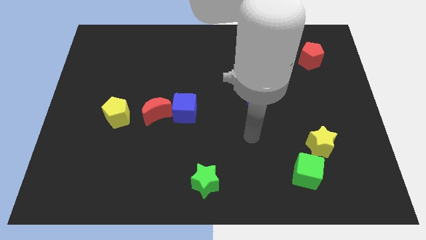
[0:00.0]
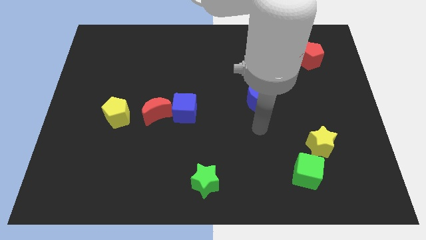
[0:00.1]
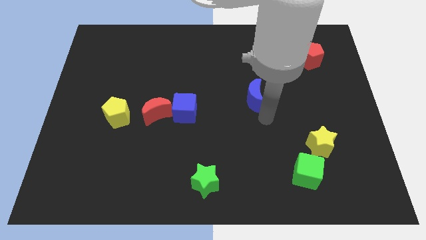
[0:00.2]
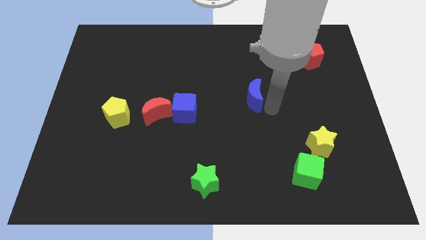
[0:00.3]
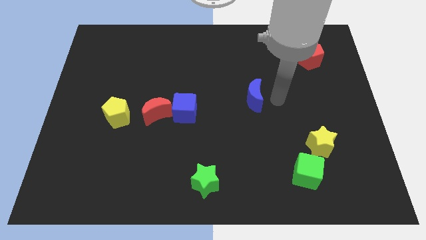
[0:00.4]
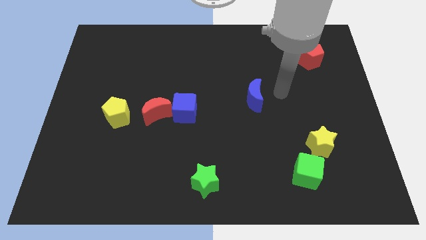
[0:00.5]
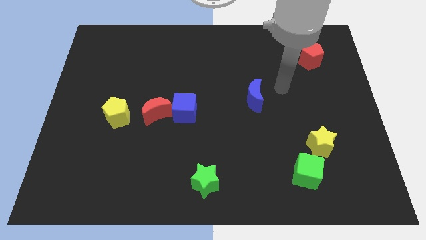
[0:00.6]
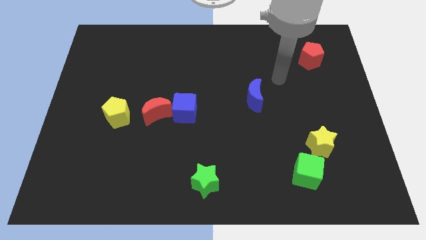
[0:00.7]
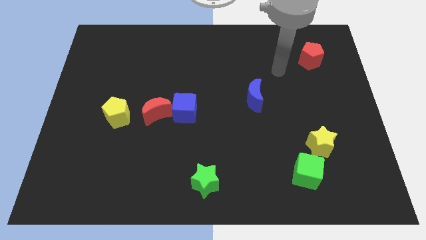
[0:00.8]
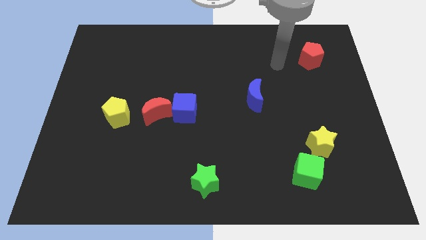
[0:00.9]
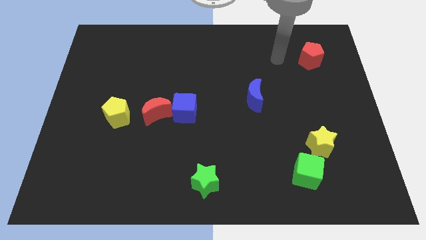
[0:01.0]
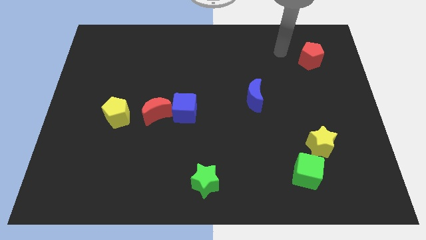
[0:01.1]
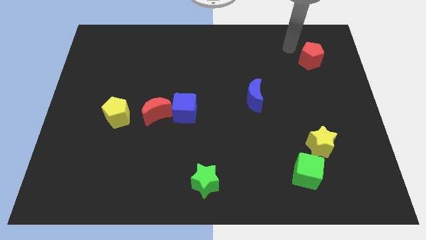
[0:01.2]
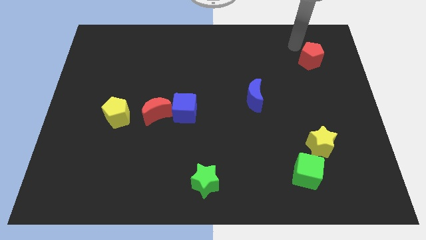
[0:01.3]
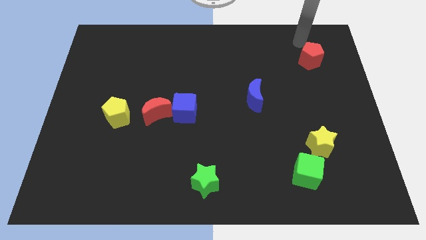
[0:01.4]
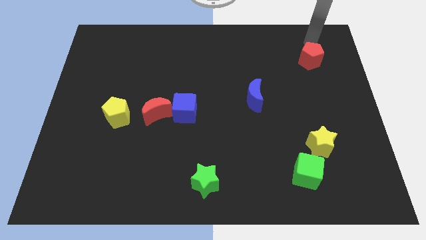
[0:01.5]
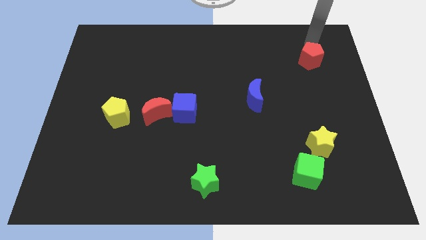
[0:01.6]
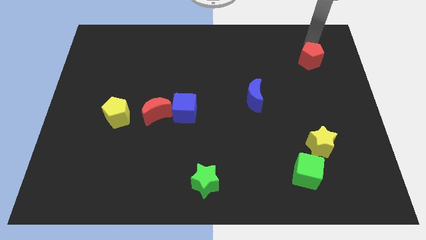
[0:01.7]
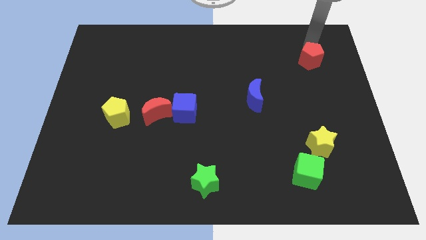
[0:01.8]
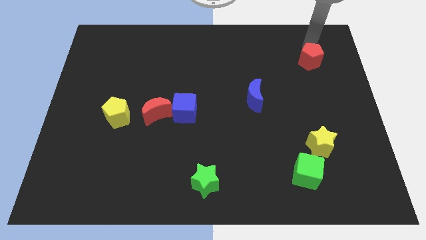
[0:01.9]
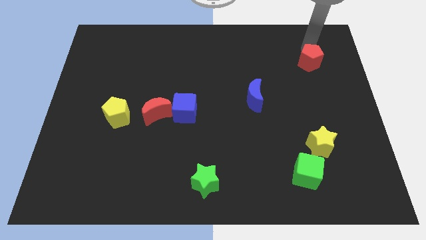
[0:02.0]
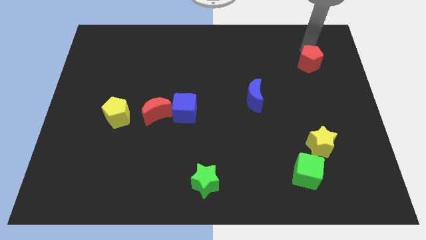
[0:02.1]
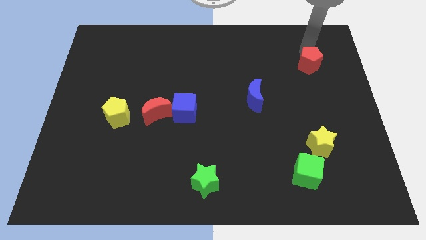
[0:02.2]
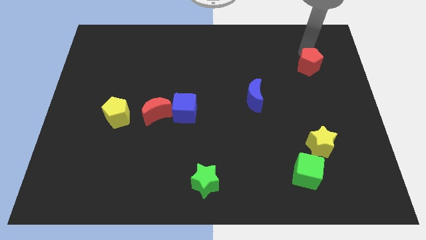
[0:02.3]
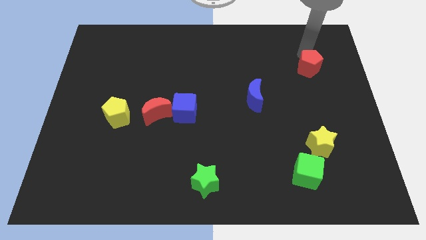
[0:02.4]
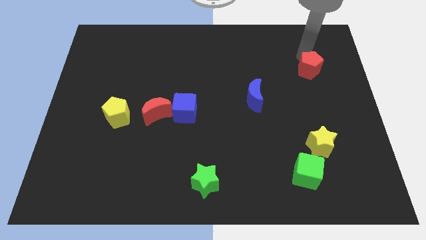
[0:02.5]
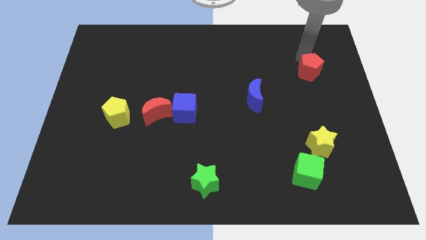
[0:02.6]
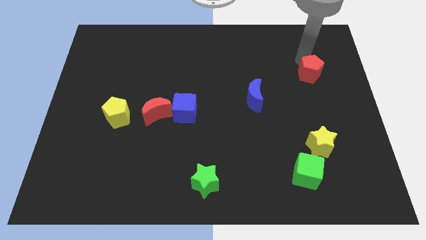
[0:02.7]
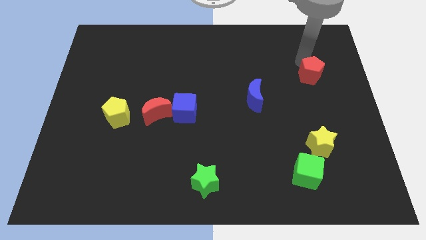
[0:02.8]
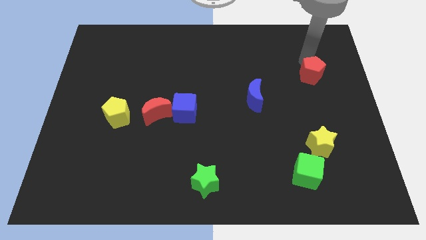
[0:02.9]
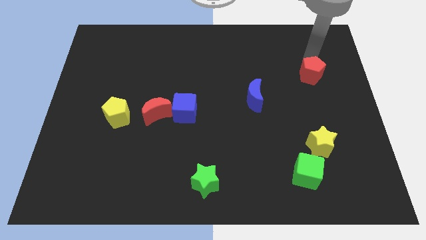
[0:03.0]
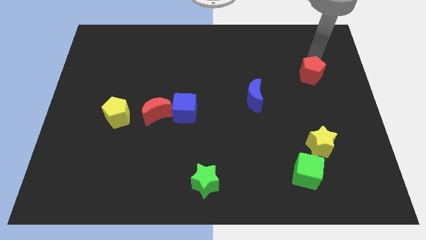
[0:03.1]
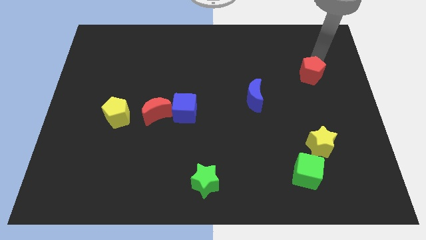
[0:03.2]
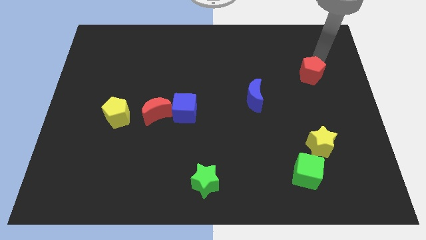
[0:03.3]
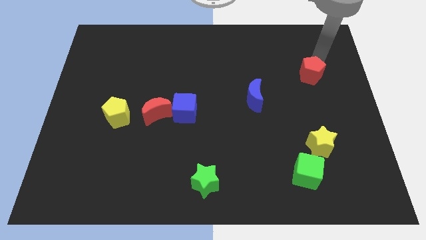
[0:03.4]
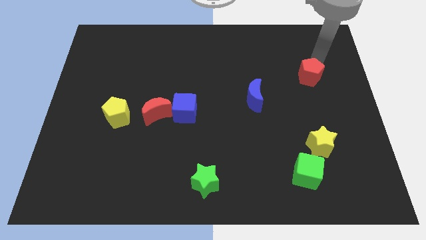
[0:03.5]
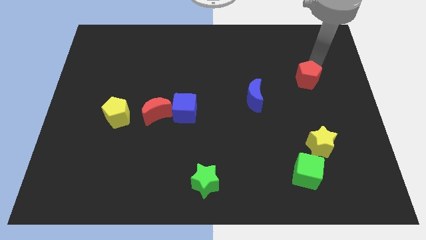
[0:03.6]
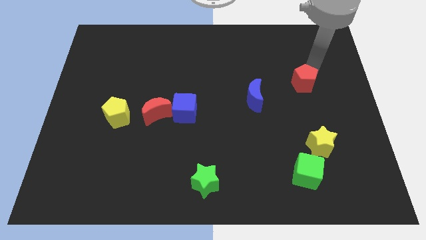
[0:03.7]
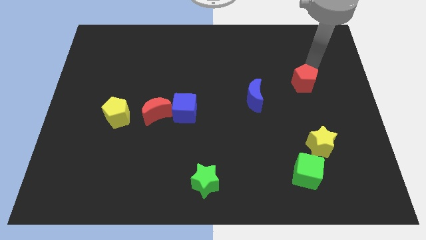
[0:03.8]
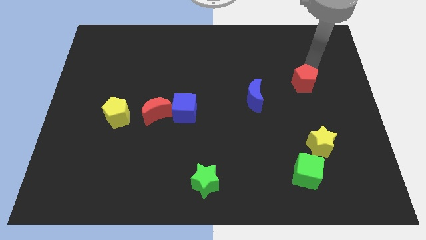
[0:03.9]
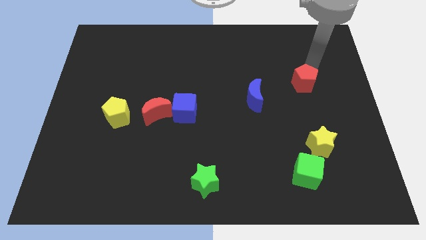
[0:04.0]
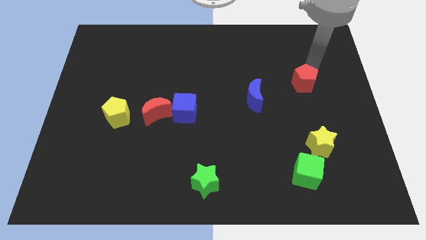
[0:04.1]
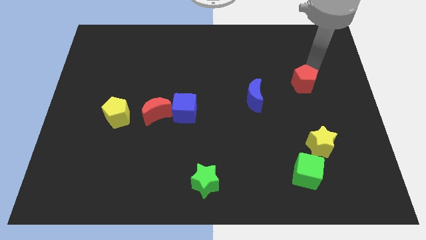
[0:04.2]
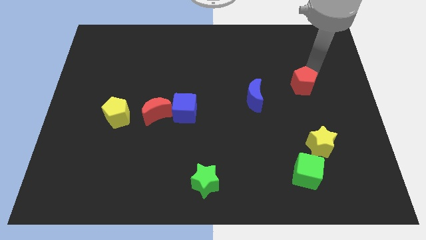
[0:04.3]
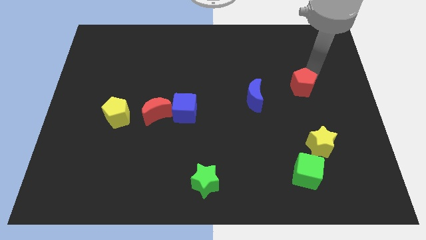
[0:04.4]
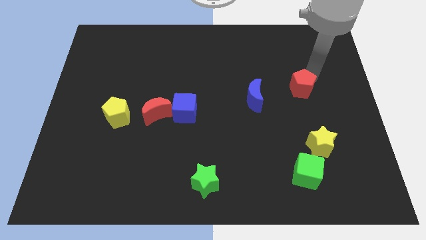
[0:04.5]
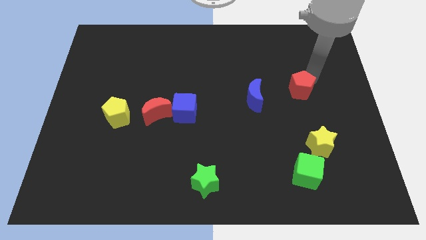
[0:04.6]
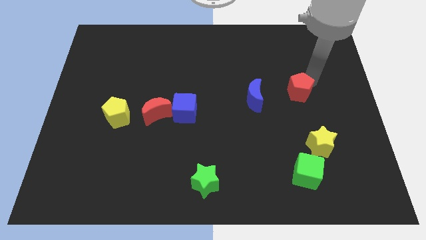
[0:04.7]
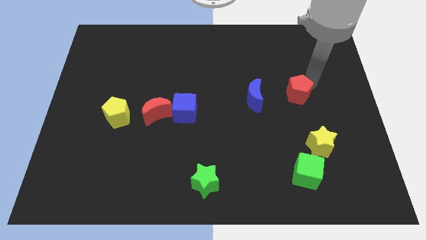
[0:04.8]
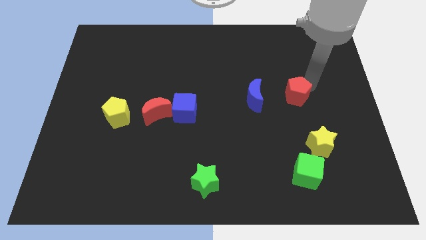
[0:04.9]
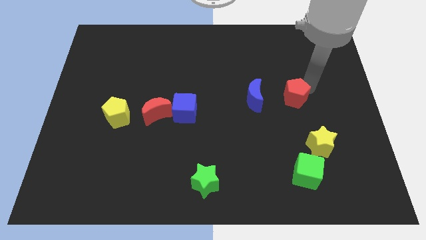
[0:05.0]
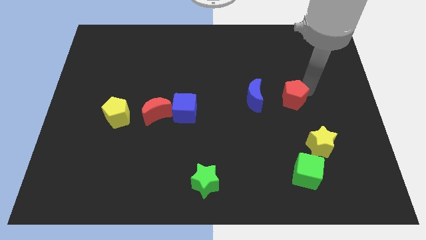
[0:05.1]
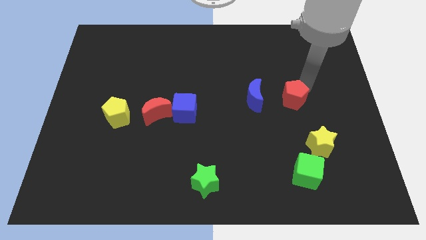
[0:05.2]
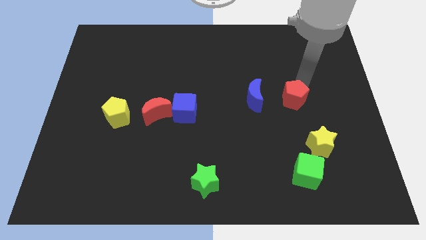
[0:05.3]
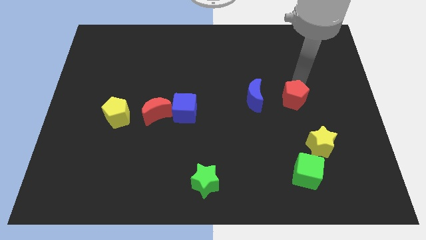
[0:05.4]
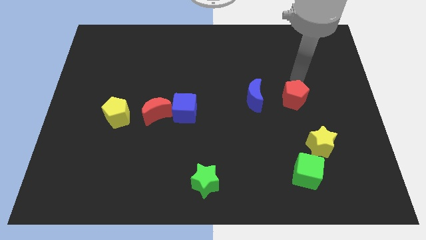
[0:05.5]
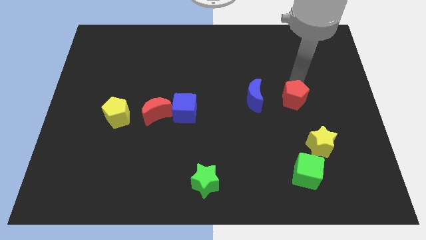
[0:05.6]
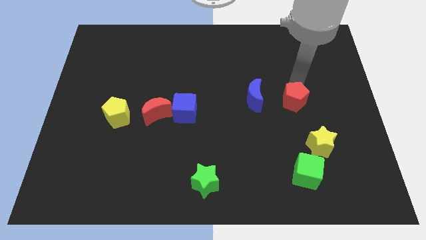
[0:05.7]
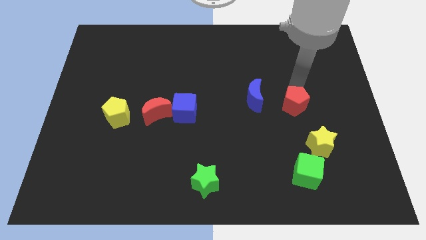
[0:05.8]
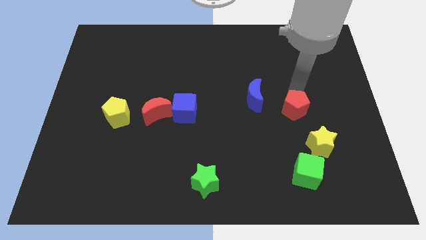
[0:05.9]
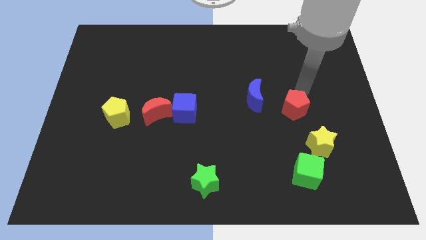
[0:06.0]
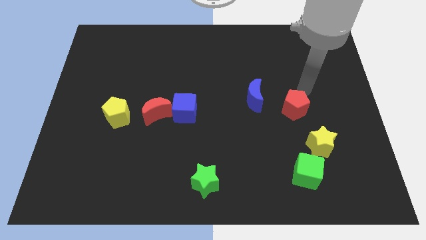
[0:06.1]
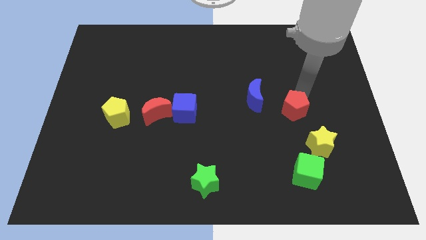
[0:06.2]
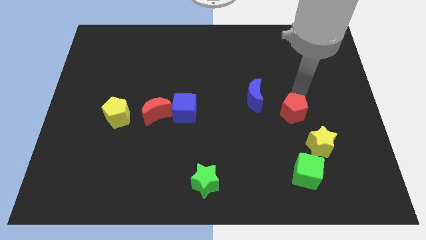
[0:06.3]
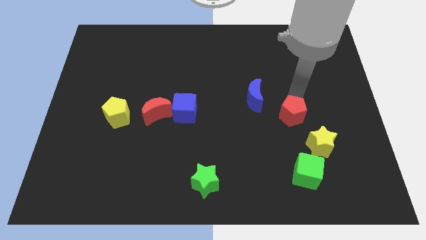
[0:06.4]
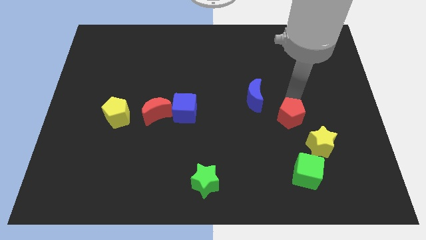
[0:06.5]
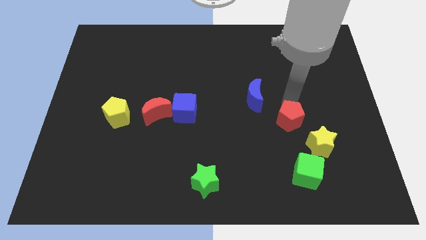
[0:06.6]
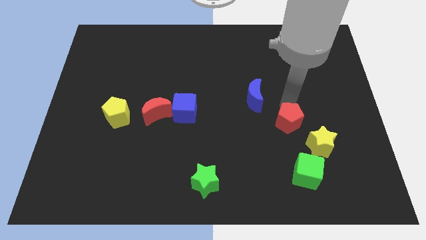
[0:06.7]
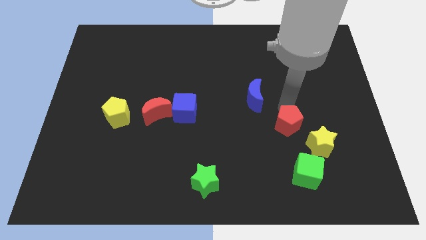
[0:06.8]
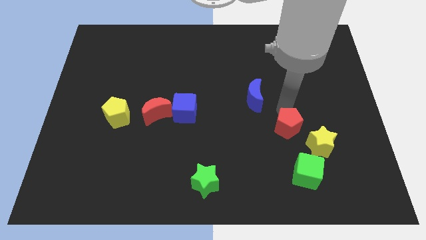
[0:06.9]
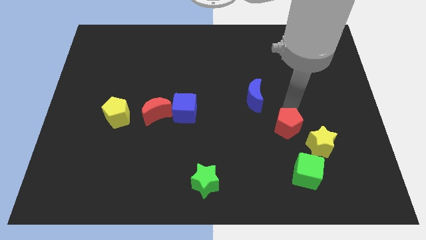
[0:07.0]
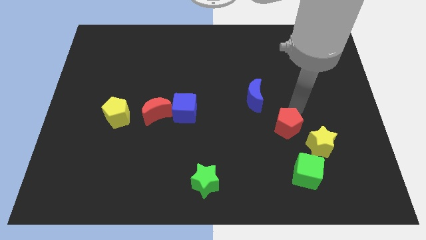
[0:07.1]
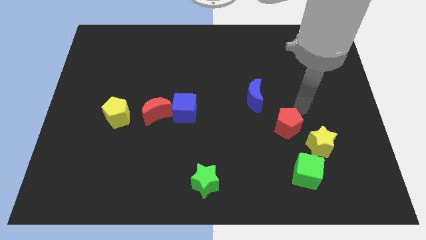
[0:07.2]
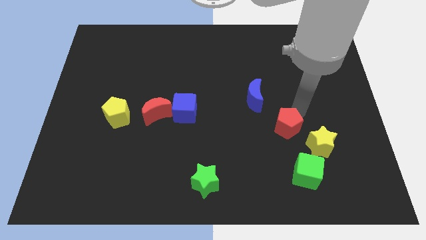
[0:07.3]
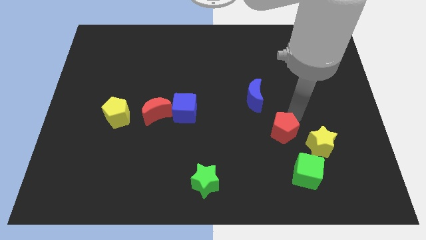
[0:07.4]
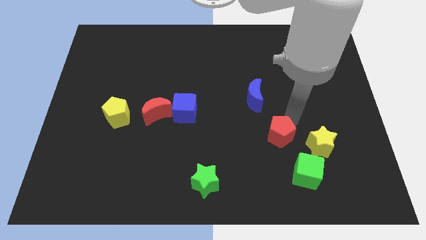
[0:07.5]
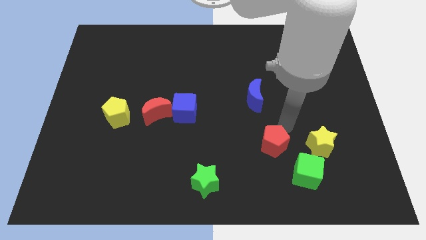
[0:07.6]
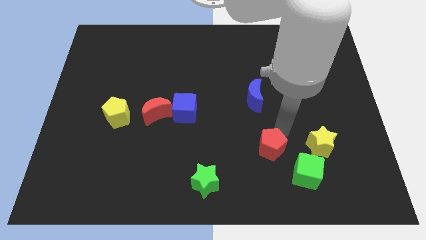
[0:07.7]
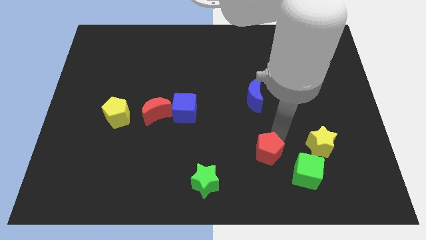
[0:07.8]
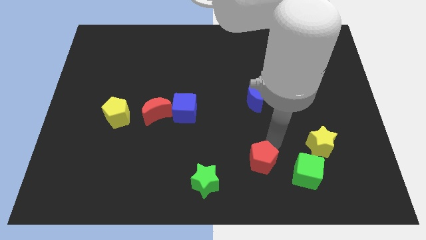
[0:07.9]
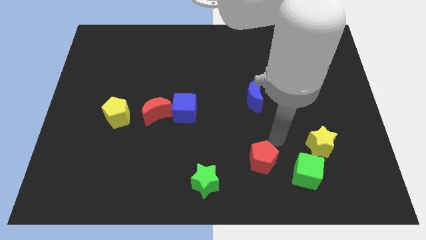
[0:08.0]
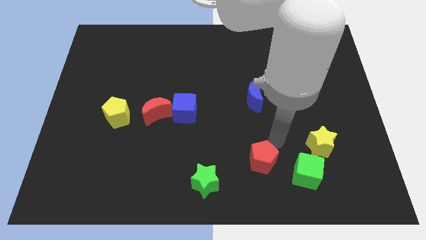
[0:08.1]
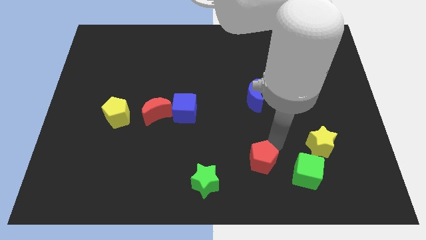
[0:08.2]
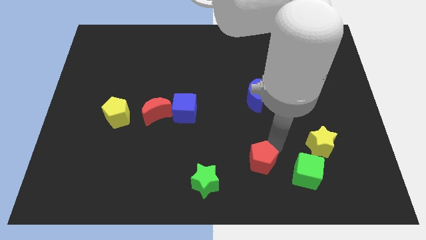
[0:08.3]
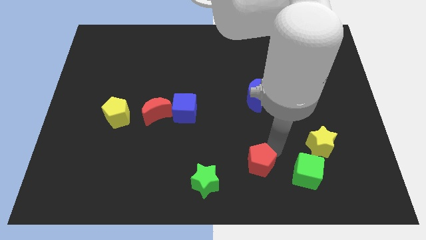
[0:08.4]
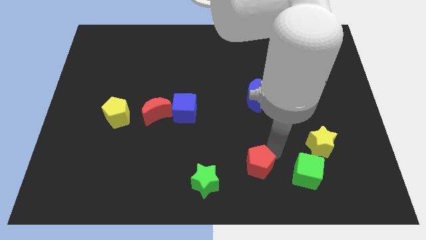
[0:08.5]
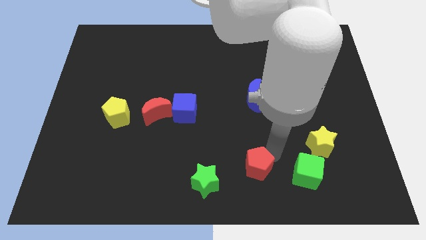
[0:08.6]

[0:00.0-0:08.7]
put the red pentagon to the bottom side
